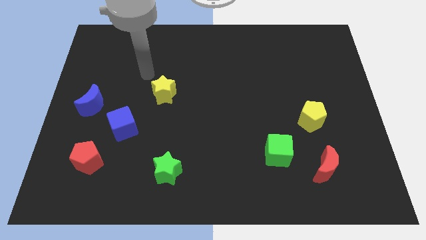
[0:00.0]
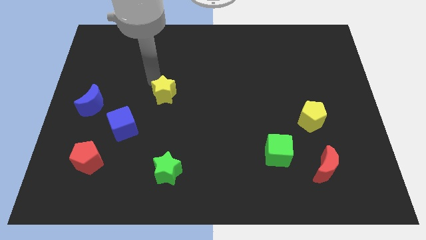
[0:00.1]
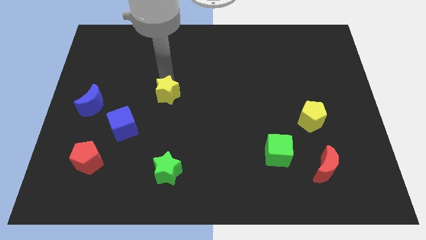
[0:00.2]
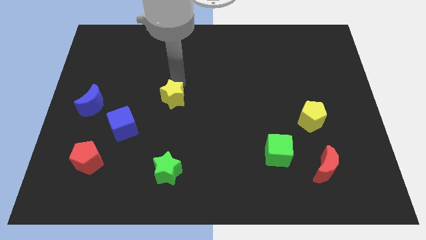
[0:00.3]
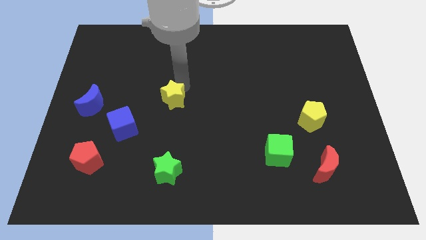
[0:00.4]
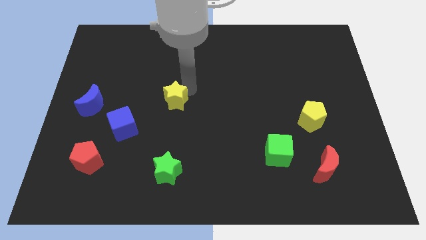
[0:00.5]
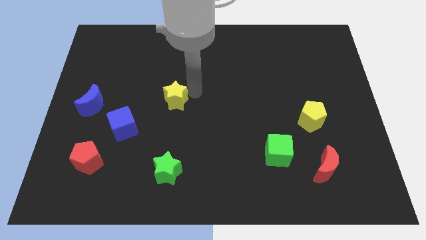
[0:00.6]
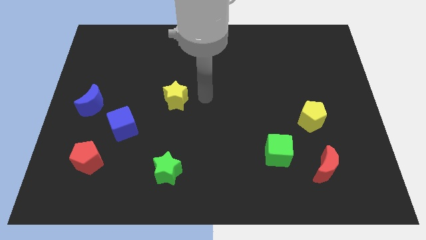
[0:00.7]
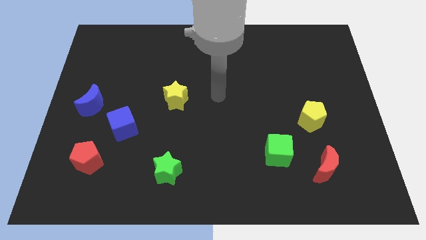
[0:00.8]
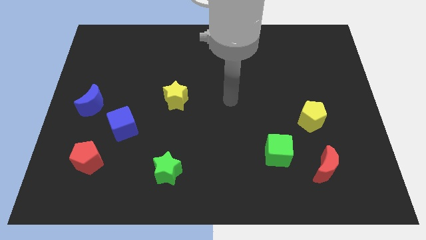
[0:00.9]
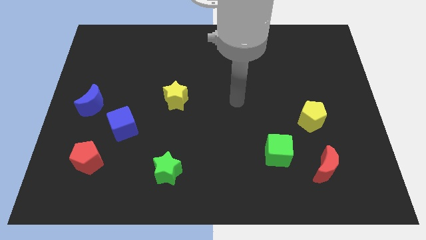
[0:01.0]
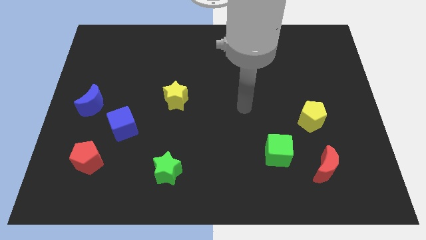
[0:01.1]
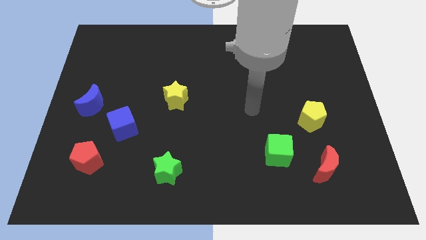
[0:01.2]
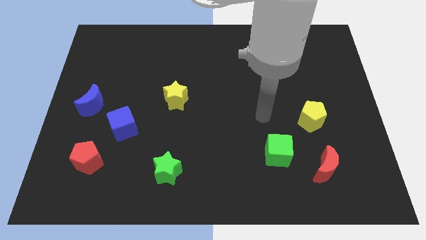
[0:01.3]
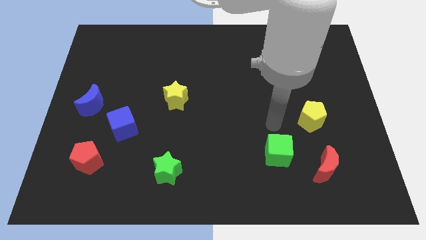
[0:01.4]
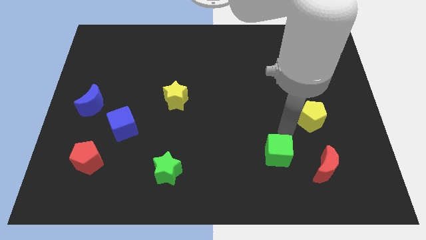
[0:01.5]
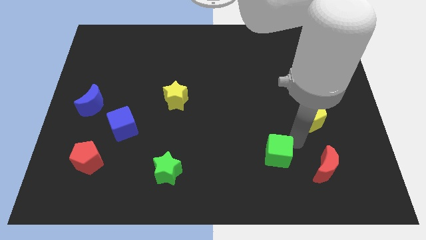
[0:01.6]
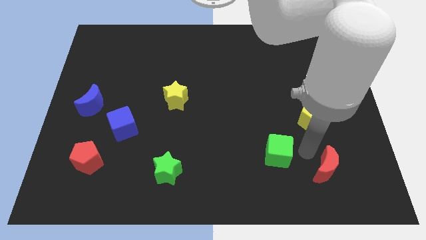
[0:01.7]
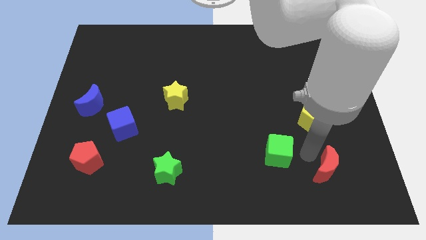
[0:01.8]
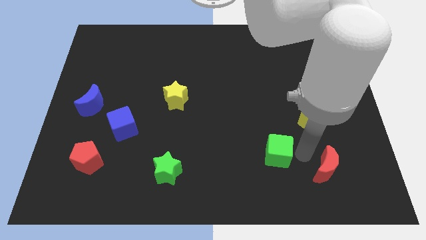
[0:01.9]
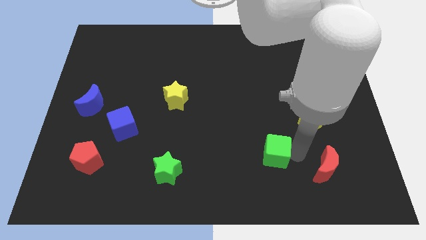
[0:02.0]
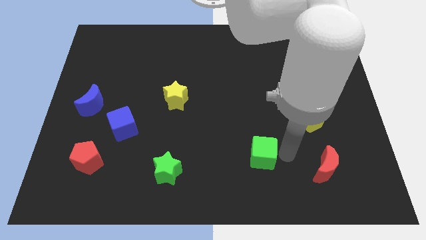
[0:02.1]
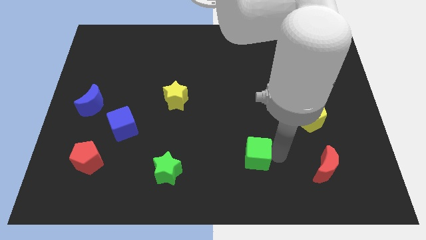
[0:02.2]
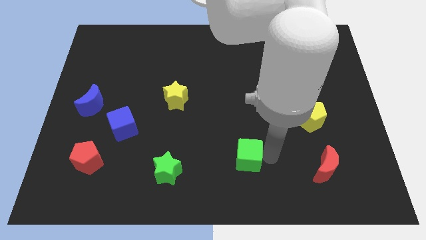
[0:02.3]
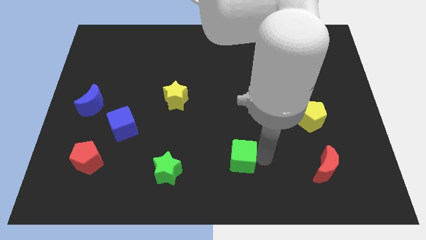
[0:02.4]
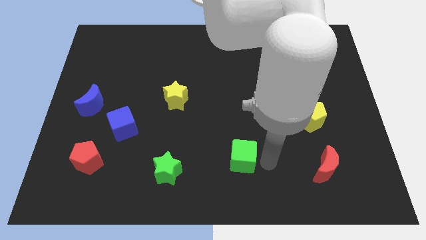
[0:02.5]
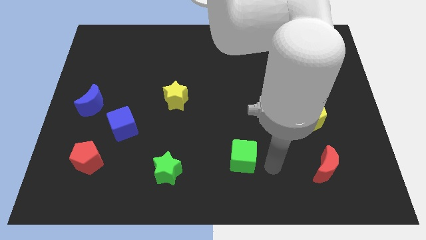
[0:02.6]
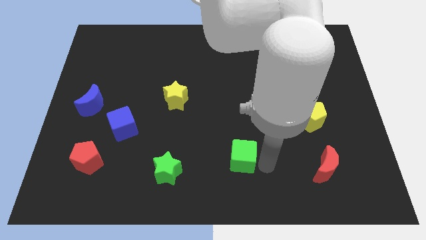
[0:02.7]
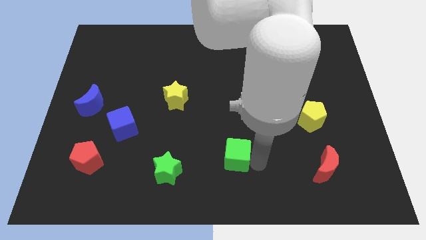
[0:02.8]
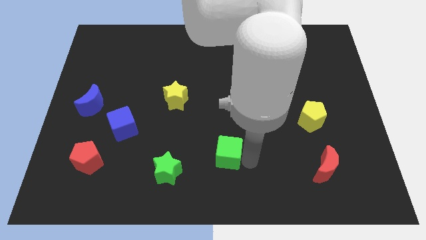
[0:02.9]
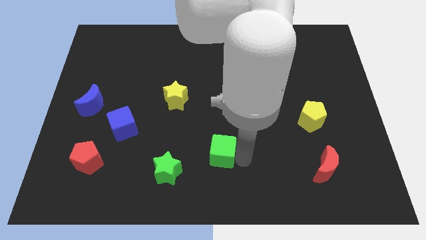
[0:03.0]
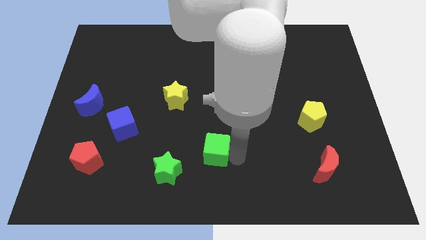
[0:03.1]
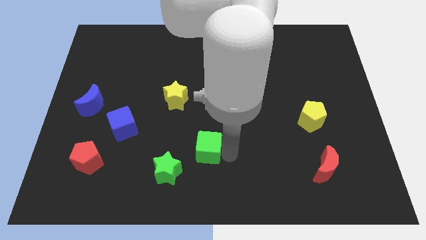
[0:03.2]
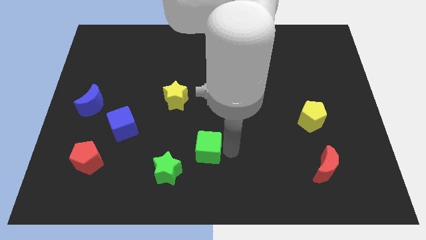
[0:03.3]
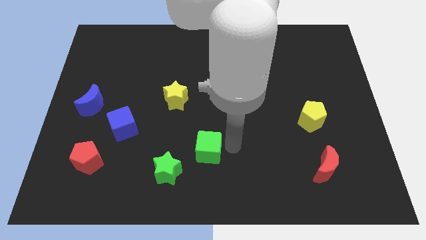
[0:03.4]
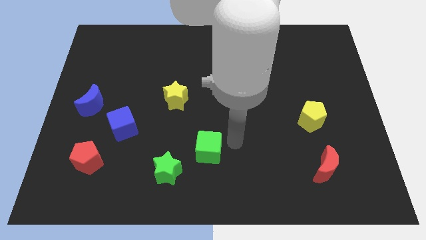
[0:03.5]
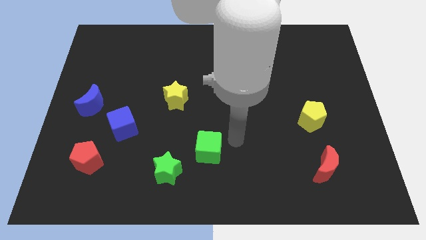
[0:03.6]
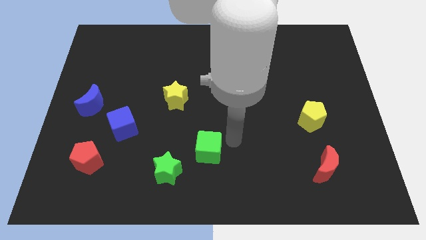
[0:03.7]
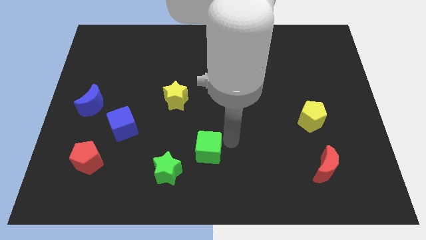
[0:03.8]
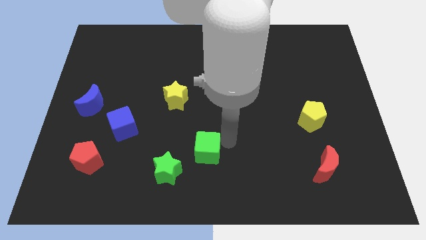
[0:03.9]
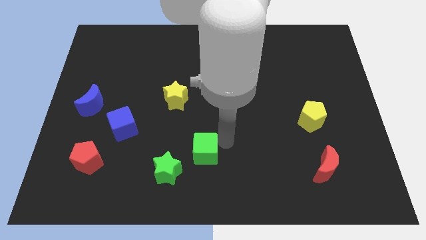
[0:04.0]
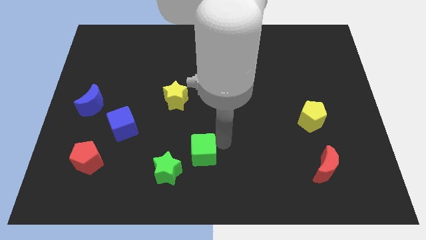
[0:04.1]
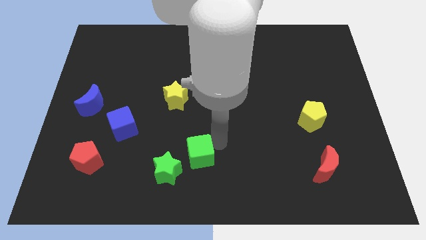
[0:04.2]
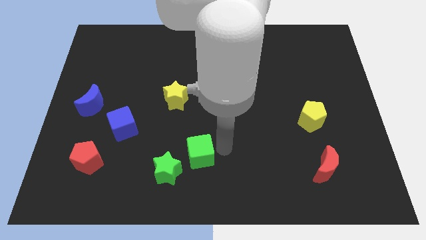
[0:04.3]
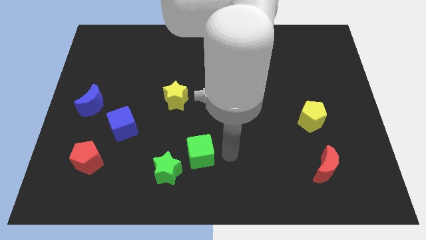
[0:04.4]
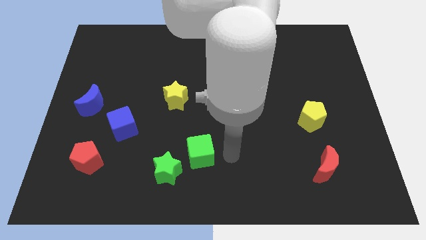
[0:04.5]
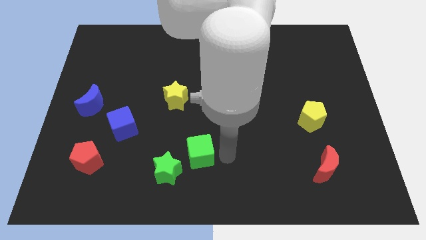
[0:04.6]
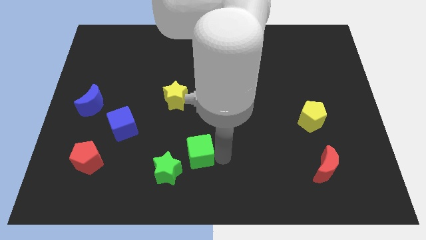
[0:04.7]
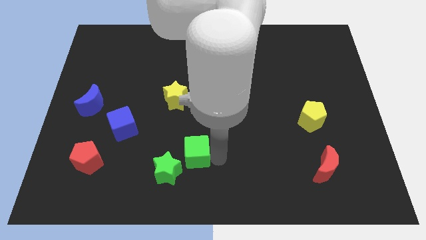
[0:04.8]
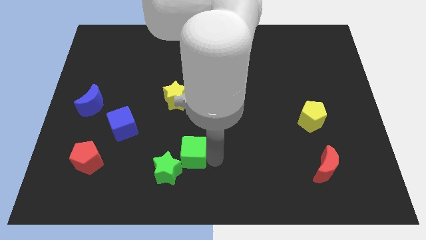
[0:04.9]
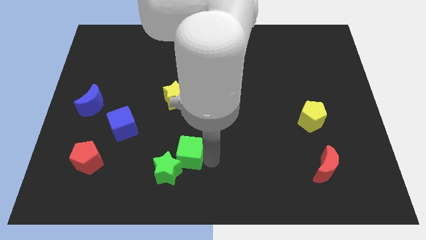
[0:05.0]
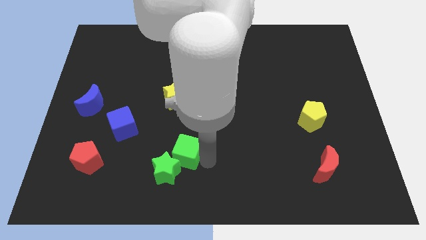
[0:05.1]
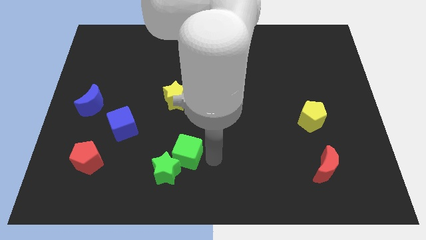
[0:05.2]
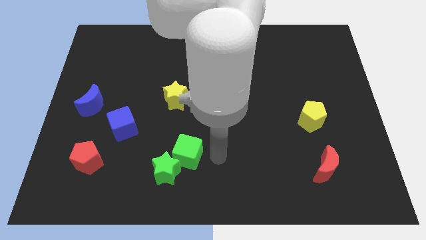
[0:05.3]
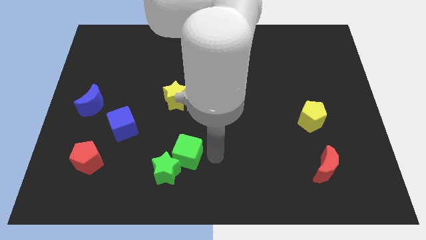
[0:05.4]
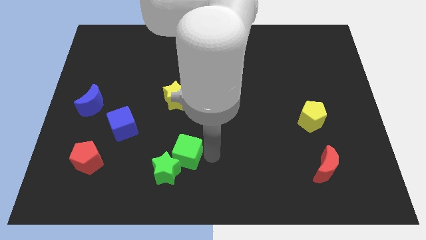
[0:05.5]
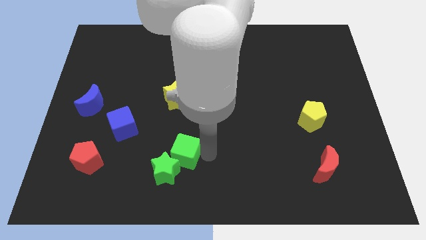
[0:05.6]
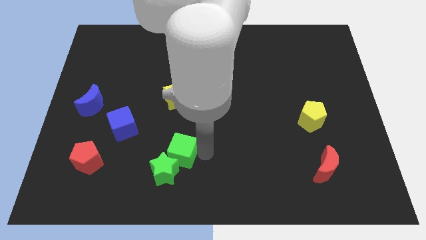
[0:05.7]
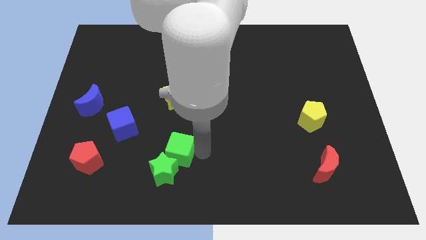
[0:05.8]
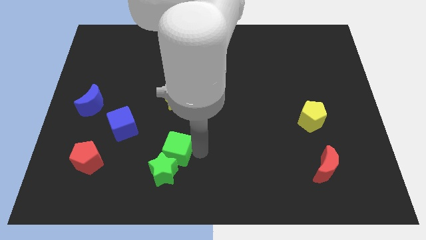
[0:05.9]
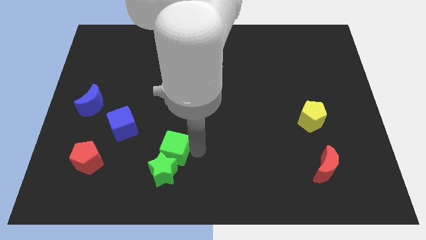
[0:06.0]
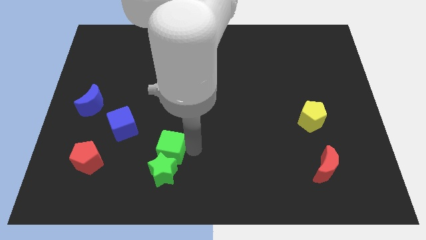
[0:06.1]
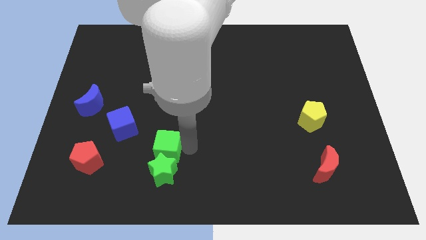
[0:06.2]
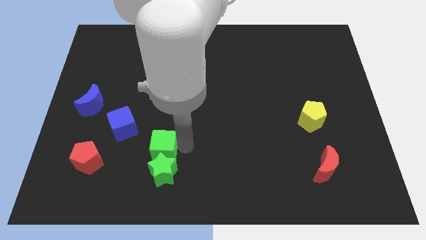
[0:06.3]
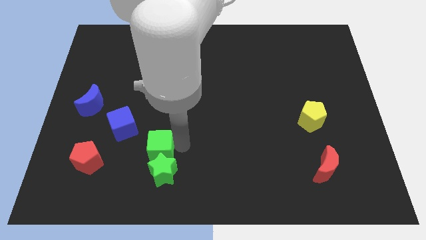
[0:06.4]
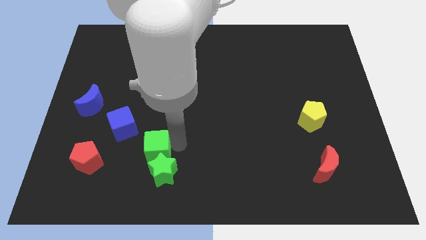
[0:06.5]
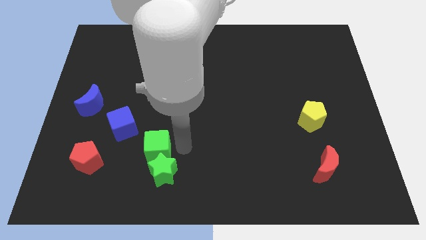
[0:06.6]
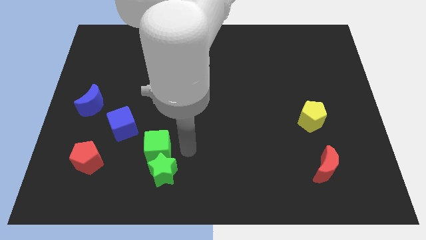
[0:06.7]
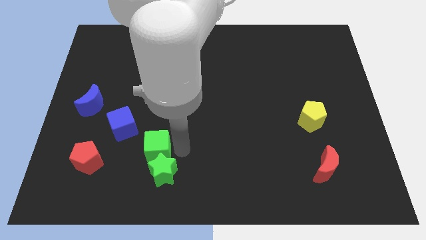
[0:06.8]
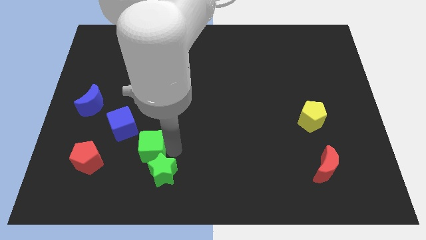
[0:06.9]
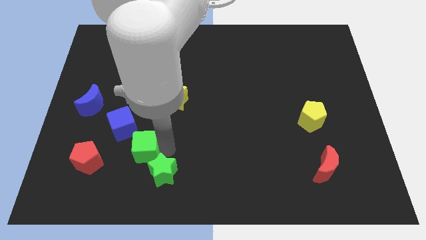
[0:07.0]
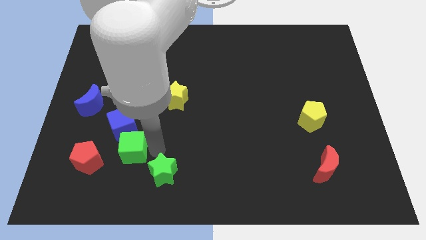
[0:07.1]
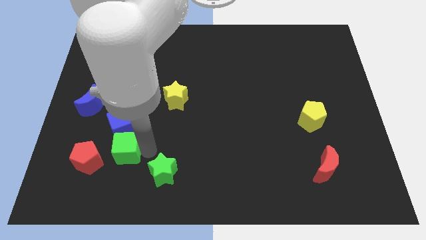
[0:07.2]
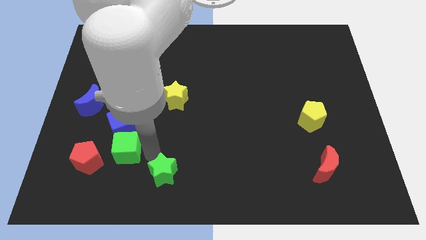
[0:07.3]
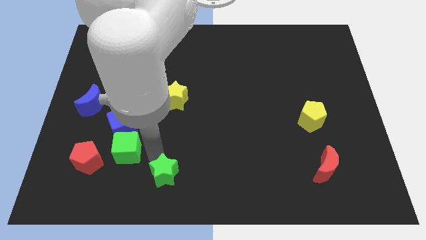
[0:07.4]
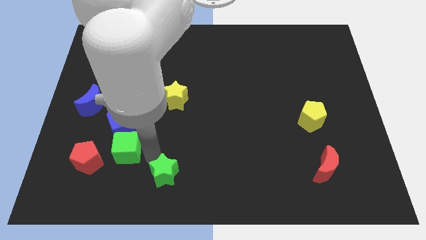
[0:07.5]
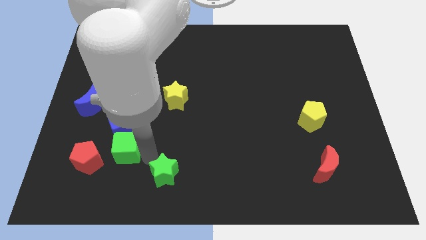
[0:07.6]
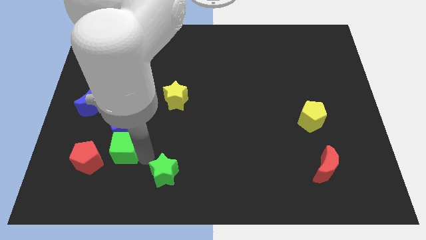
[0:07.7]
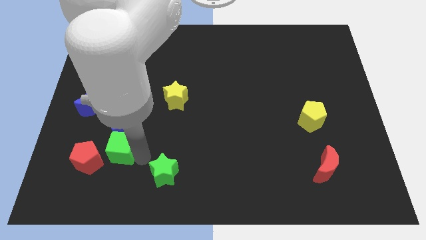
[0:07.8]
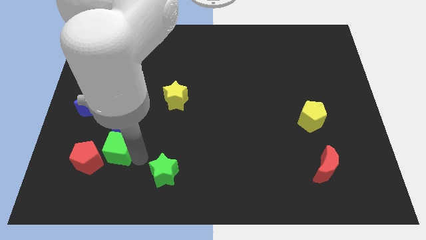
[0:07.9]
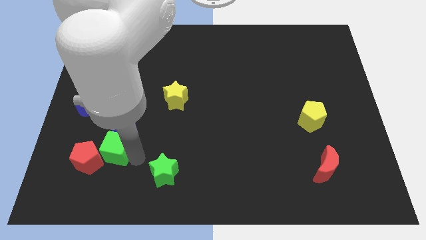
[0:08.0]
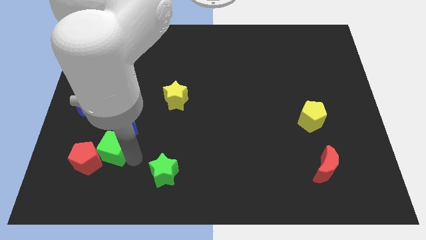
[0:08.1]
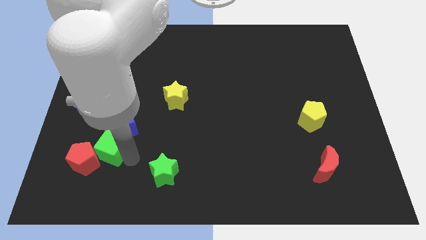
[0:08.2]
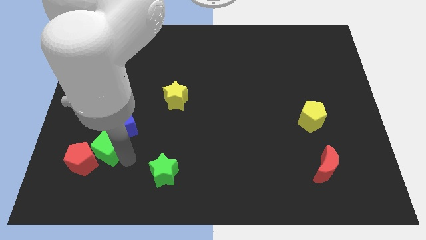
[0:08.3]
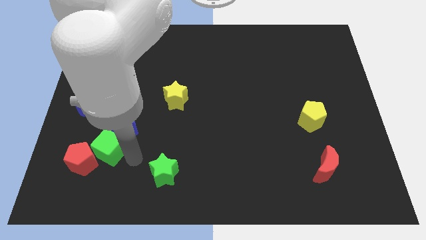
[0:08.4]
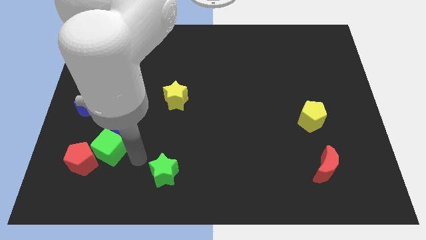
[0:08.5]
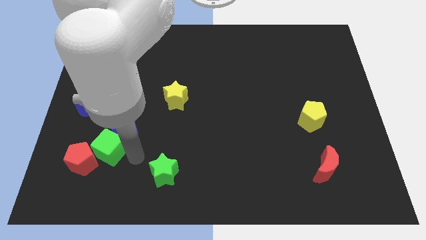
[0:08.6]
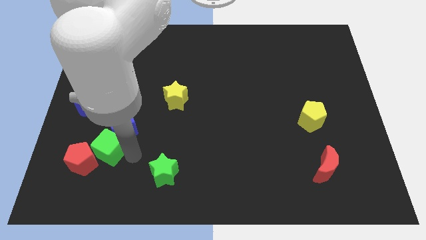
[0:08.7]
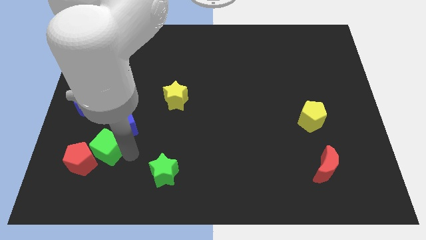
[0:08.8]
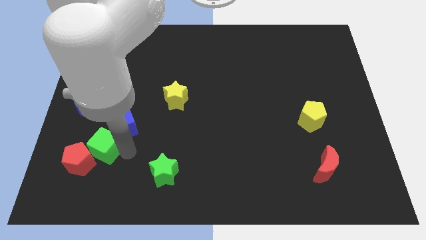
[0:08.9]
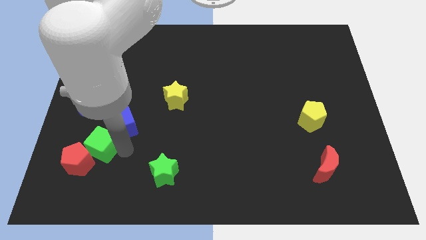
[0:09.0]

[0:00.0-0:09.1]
move the green cube to the bottom of the blue moon
